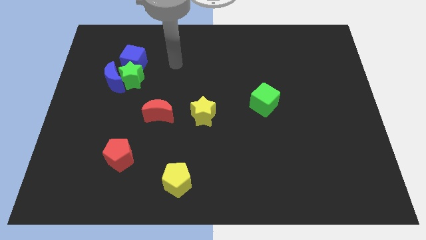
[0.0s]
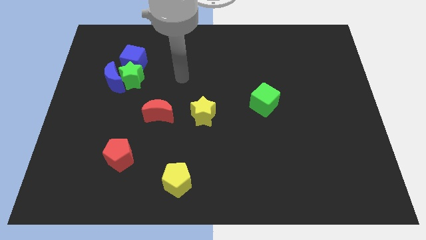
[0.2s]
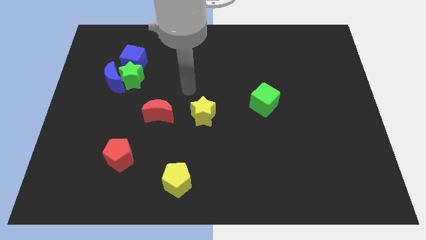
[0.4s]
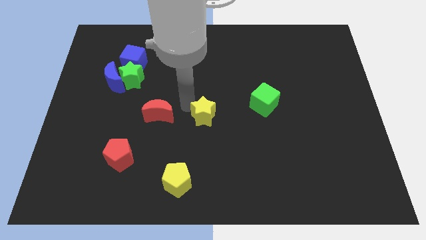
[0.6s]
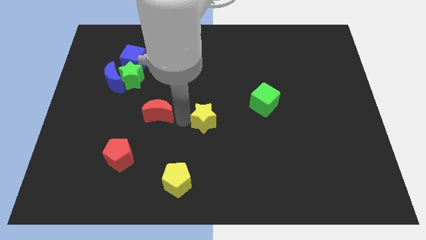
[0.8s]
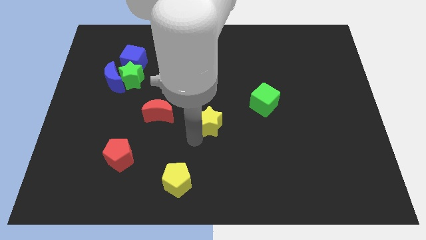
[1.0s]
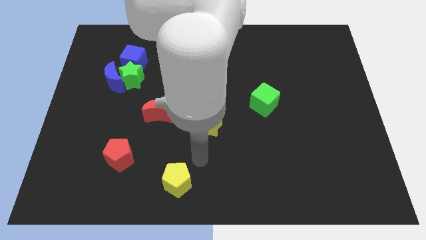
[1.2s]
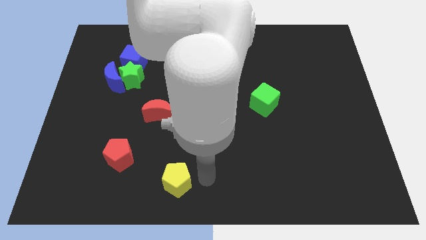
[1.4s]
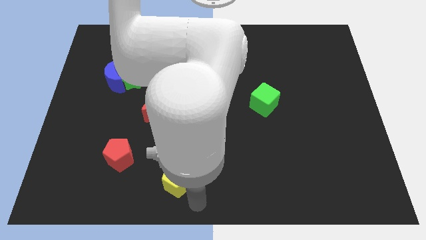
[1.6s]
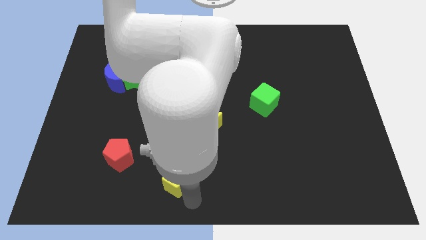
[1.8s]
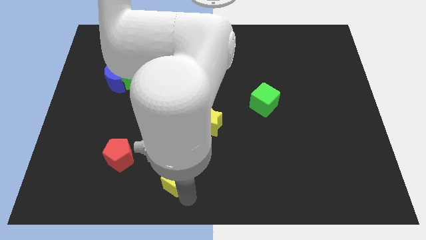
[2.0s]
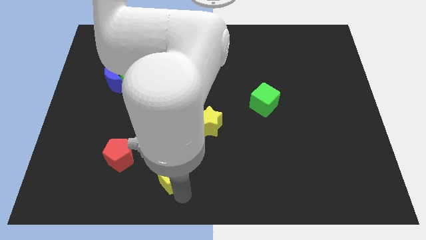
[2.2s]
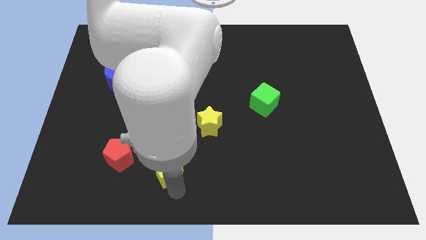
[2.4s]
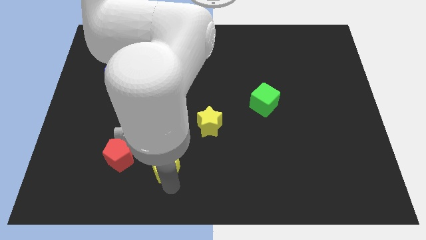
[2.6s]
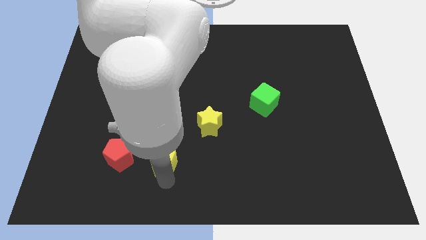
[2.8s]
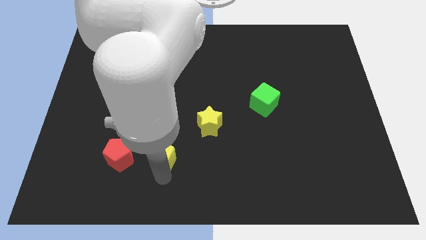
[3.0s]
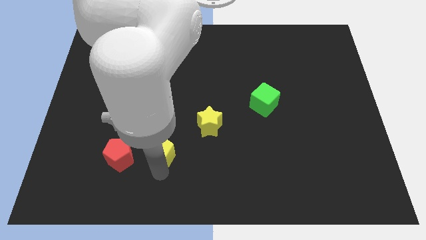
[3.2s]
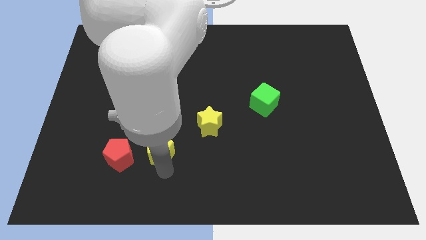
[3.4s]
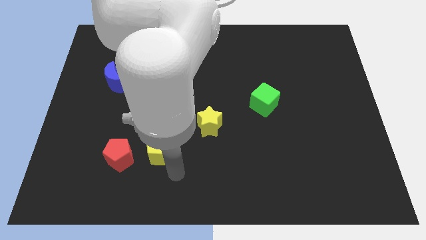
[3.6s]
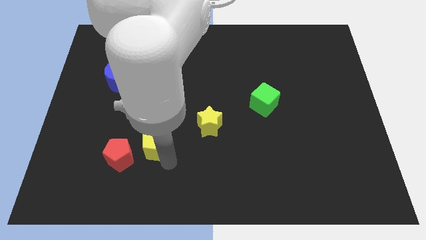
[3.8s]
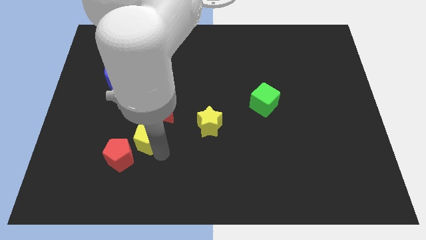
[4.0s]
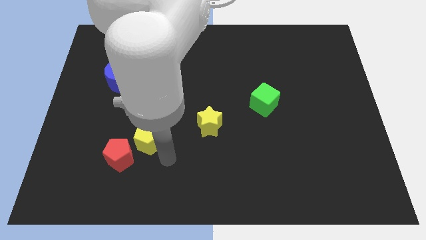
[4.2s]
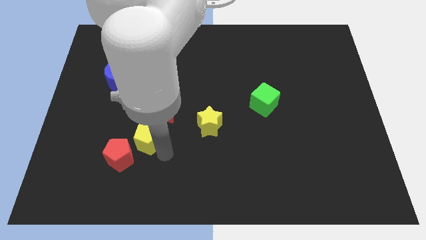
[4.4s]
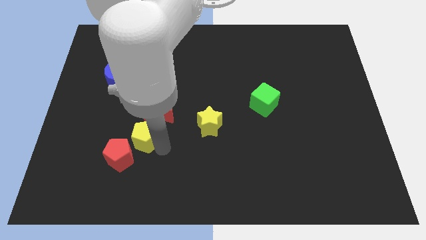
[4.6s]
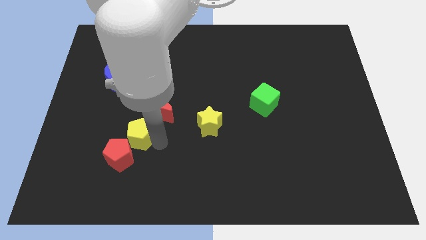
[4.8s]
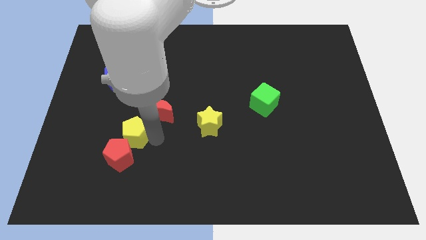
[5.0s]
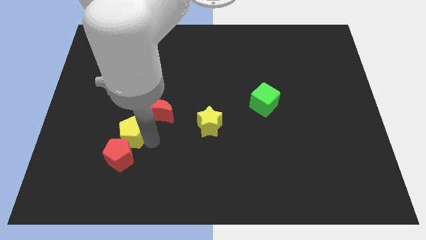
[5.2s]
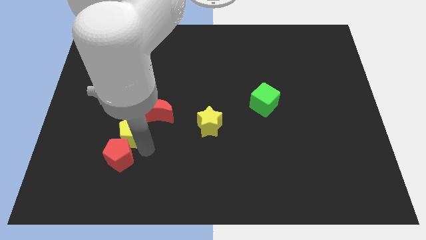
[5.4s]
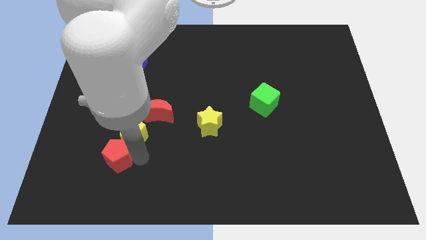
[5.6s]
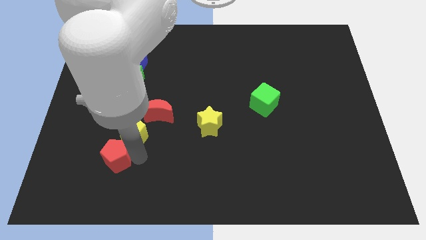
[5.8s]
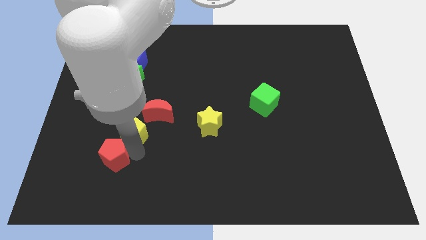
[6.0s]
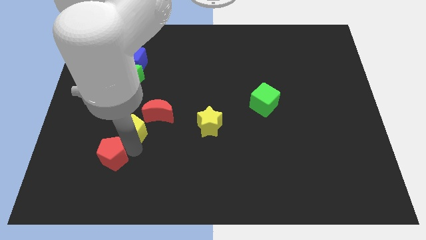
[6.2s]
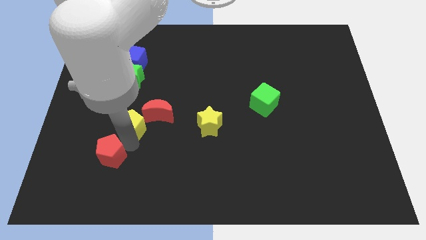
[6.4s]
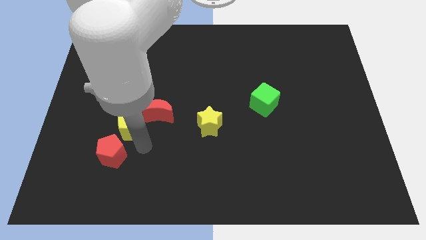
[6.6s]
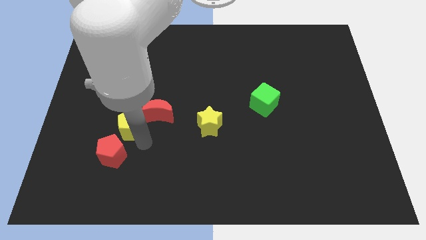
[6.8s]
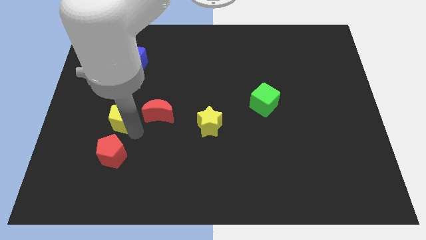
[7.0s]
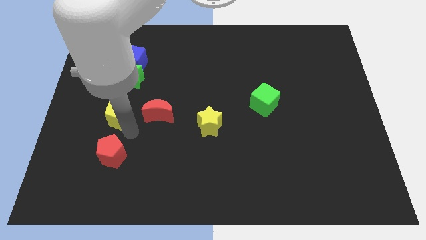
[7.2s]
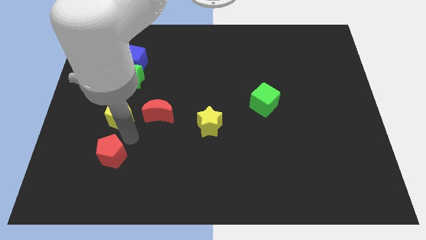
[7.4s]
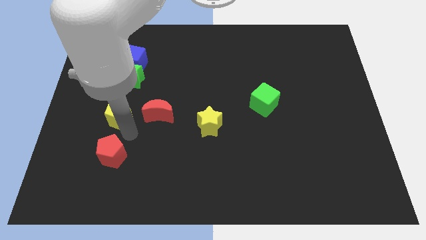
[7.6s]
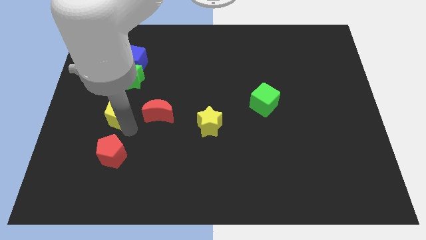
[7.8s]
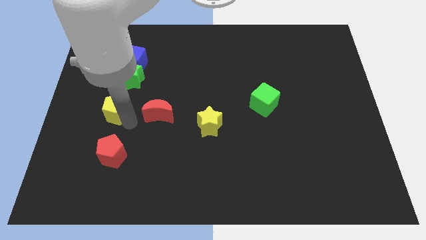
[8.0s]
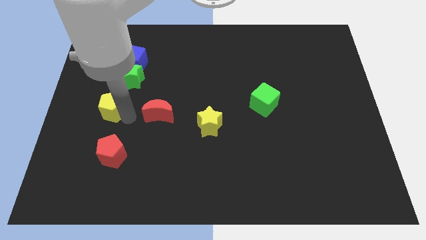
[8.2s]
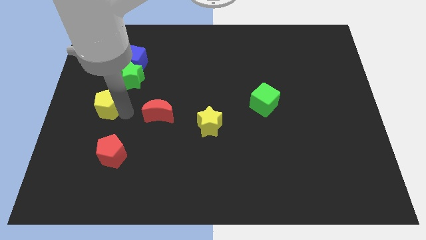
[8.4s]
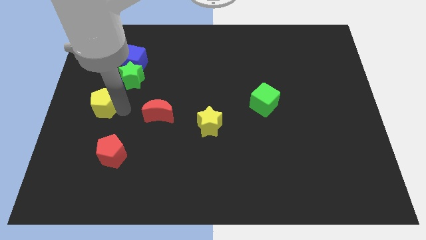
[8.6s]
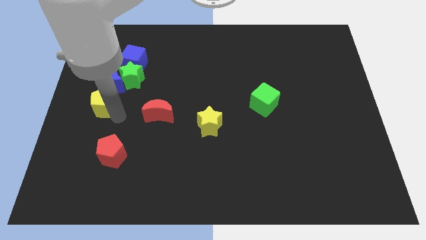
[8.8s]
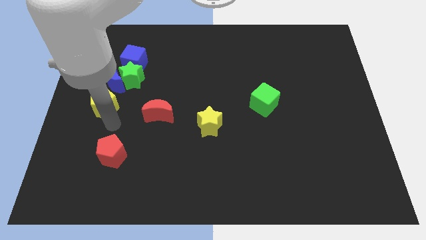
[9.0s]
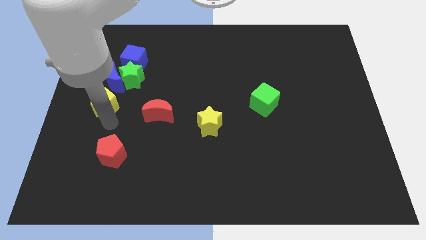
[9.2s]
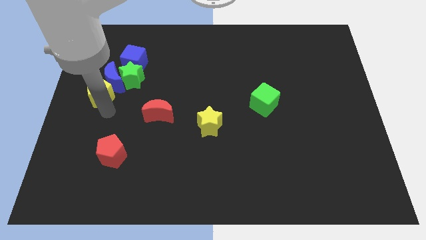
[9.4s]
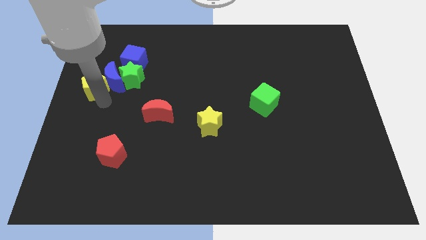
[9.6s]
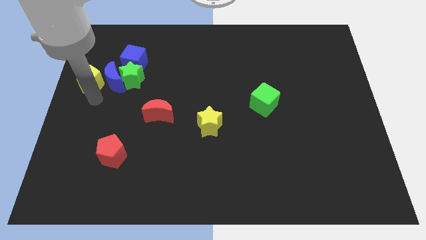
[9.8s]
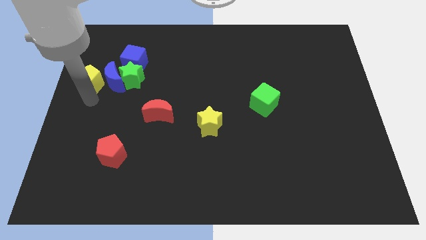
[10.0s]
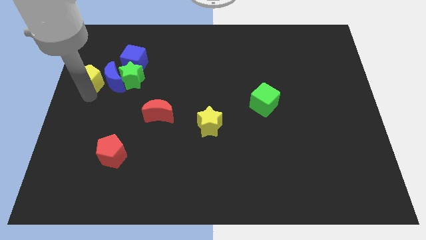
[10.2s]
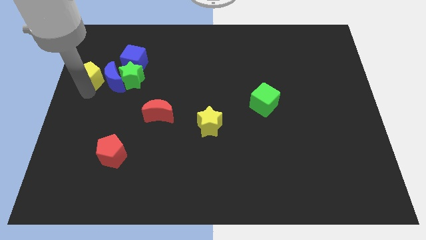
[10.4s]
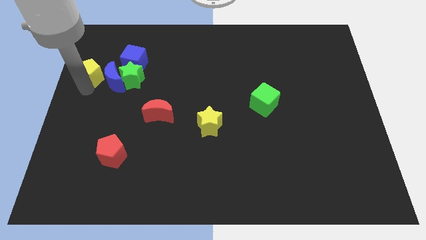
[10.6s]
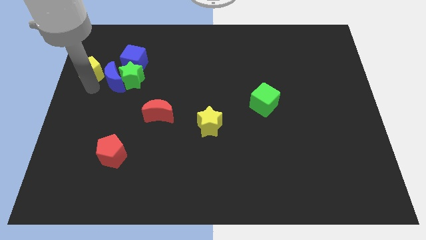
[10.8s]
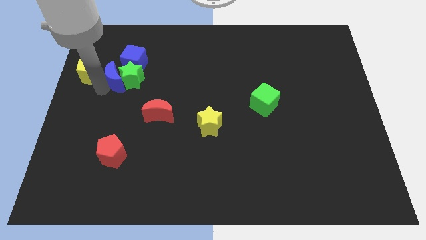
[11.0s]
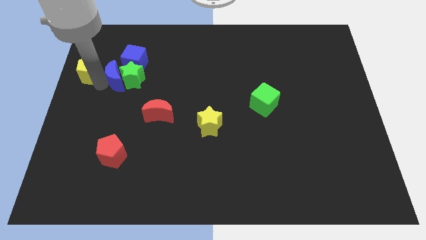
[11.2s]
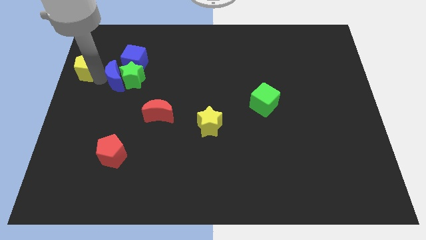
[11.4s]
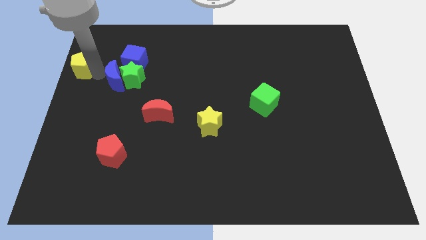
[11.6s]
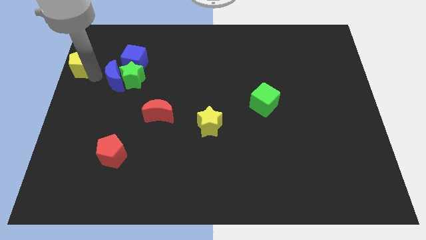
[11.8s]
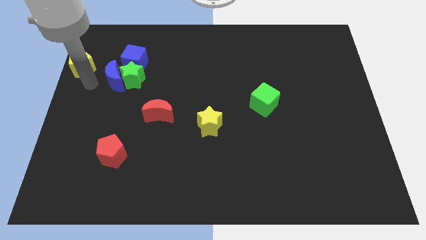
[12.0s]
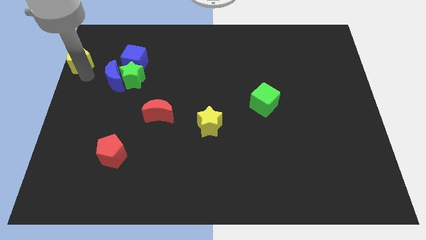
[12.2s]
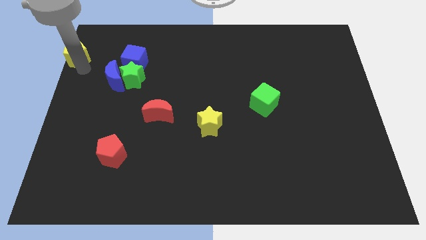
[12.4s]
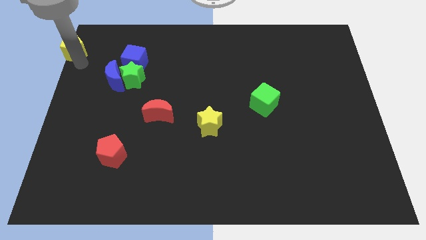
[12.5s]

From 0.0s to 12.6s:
move the yellow pentagon to the top left
